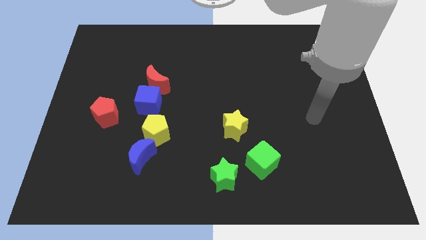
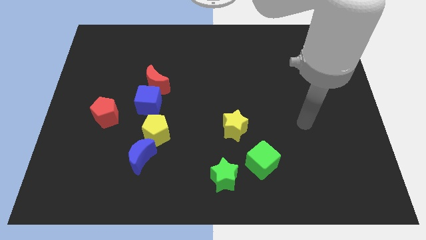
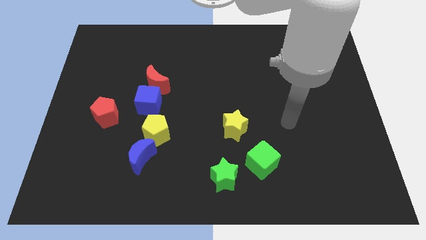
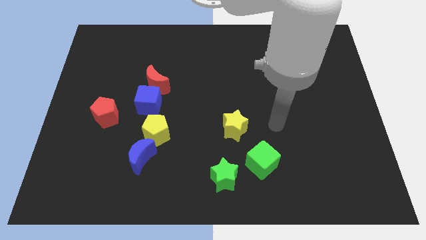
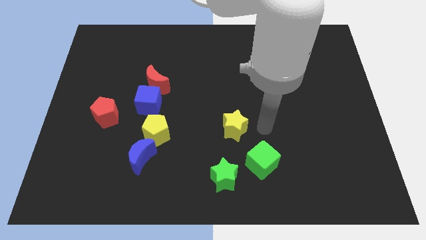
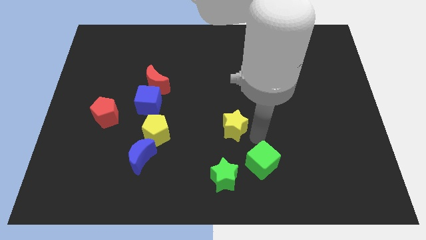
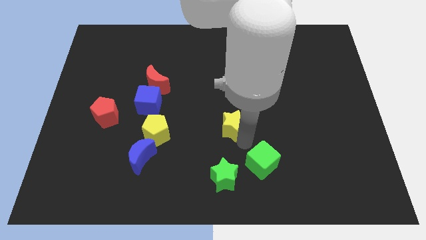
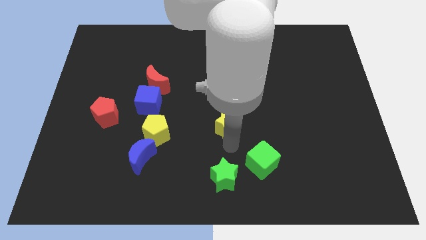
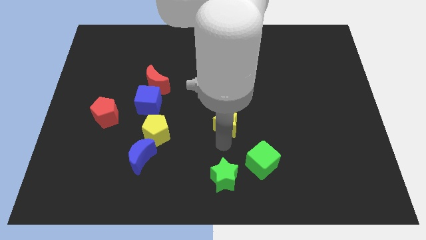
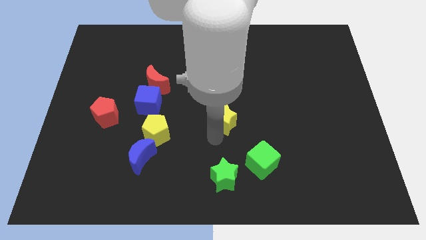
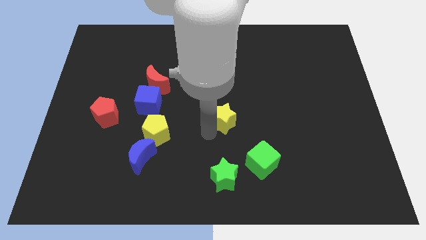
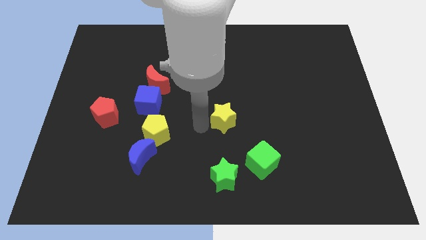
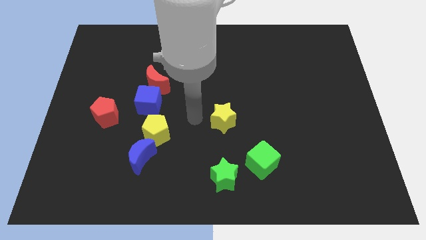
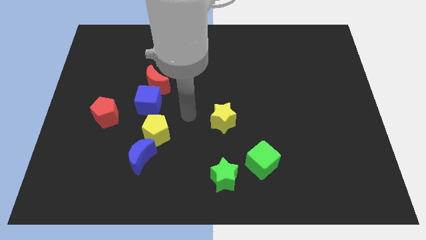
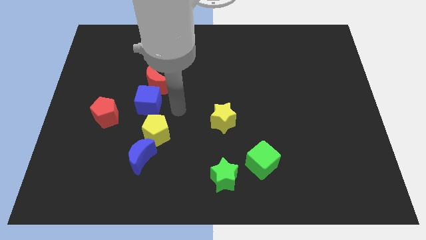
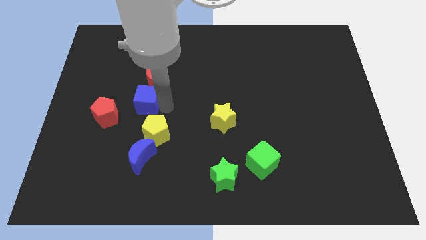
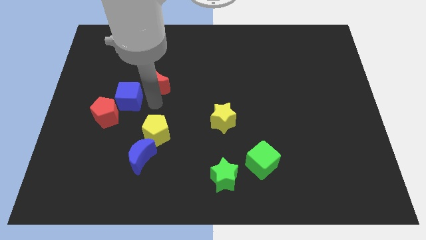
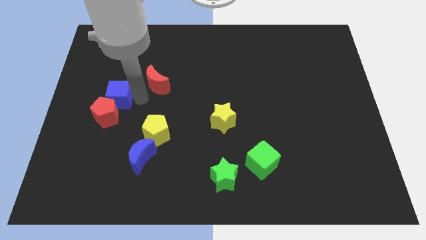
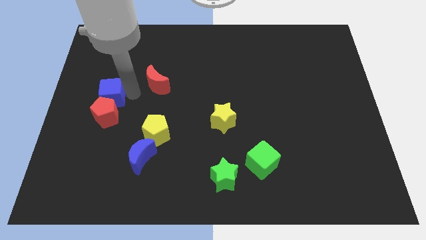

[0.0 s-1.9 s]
separate the red moon from the blue cube

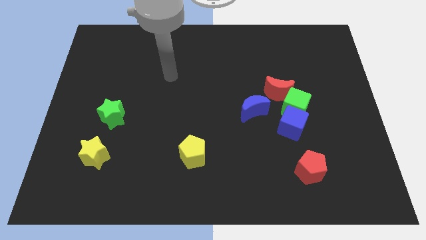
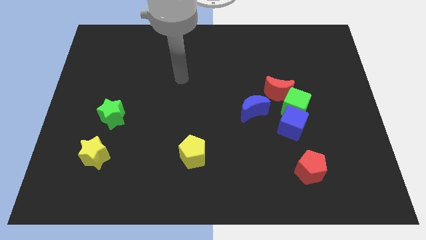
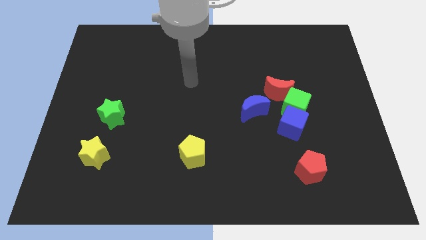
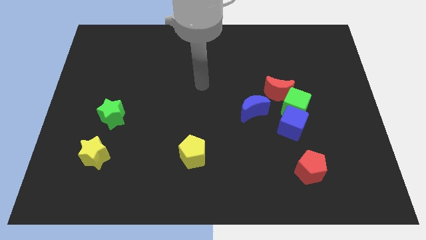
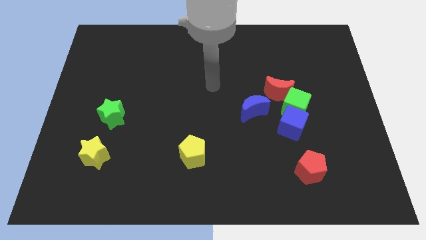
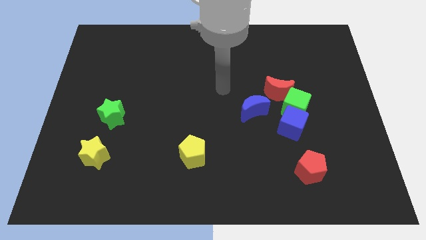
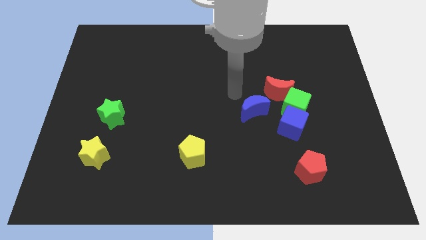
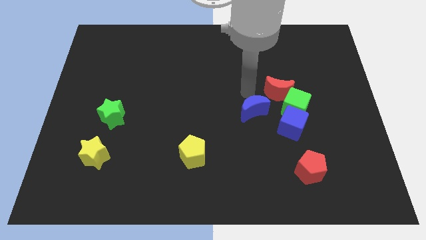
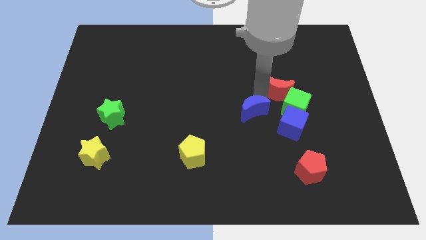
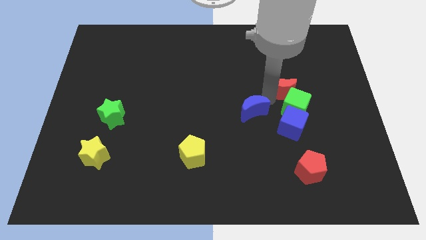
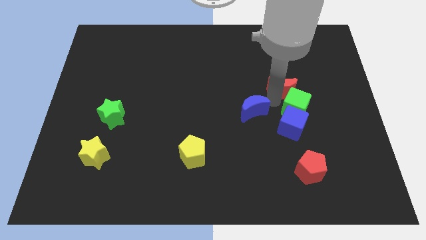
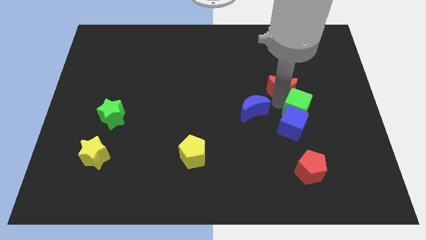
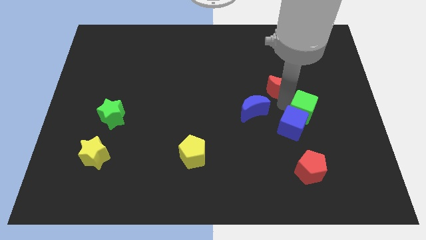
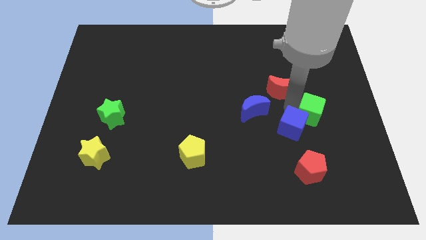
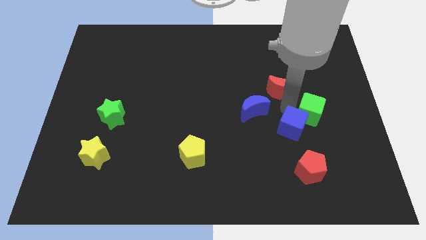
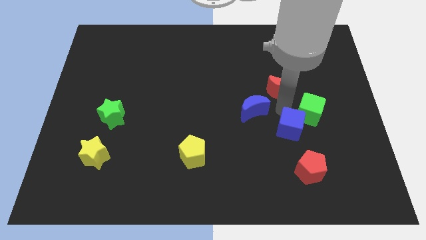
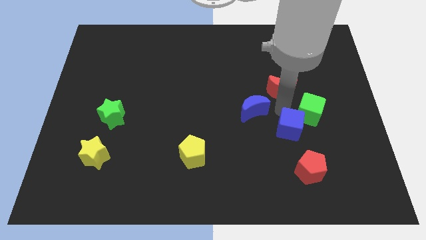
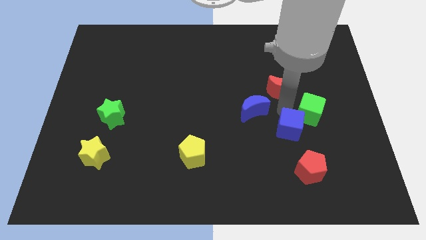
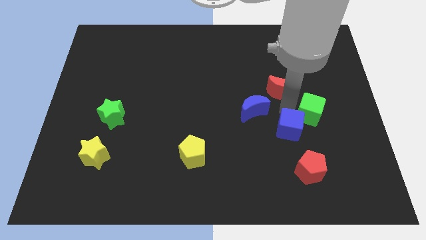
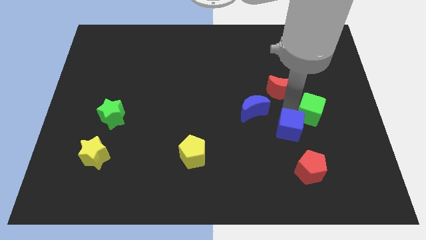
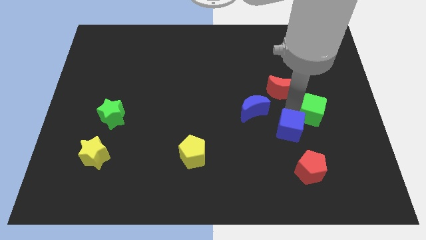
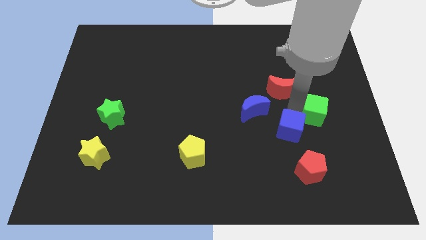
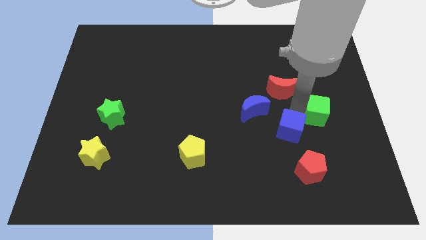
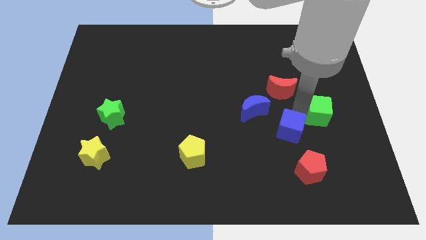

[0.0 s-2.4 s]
move the green cube away from the group

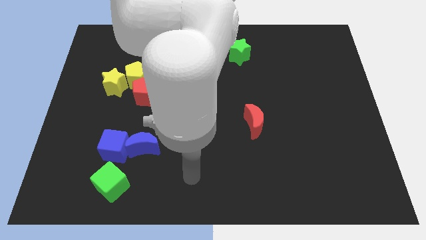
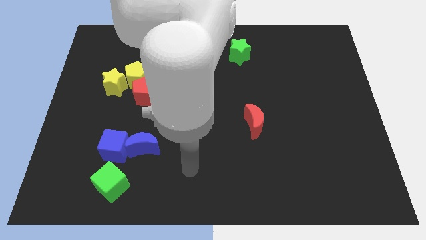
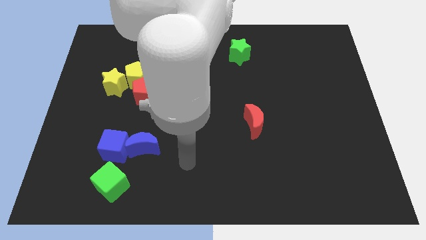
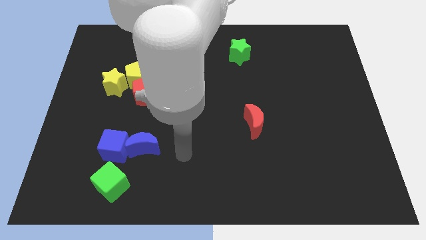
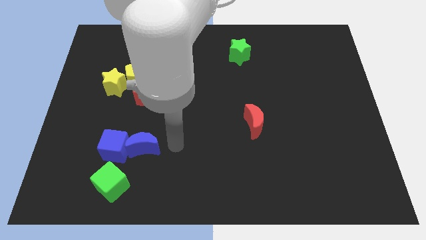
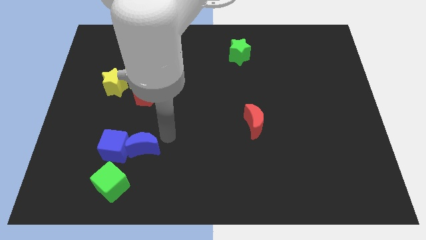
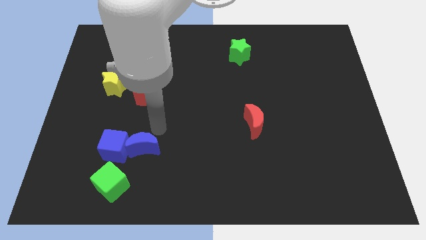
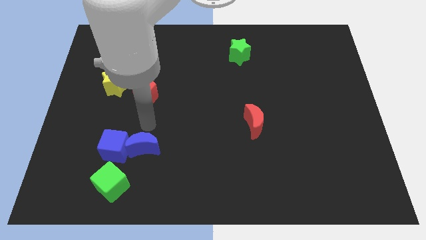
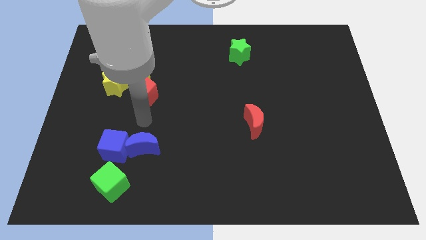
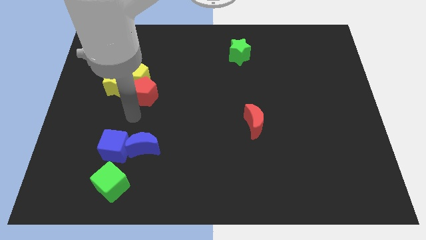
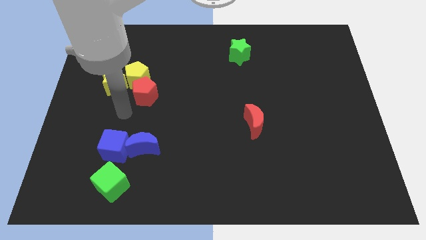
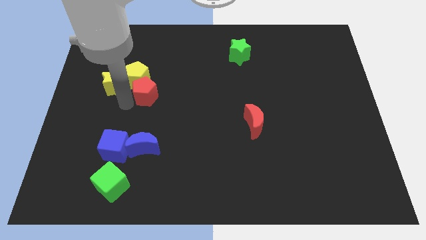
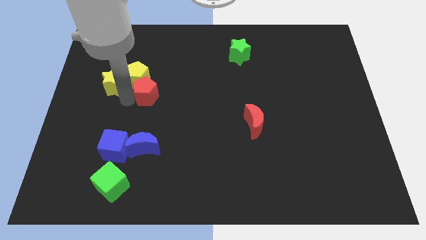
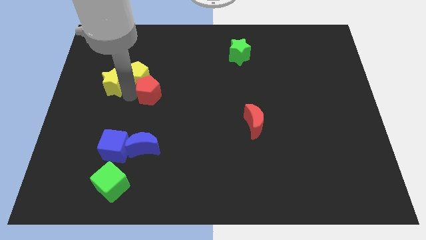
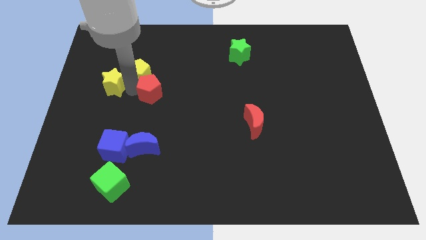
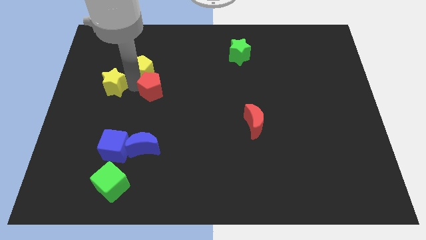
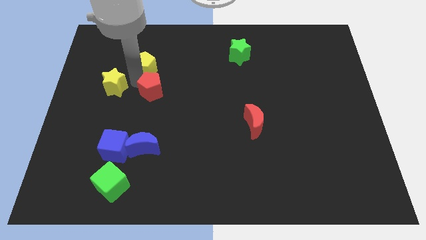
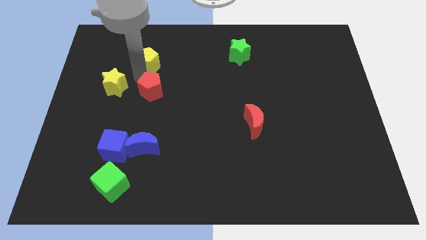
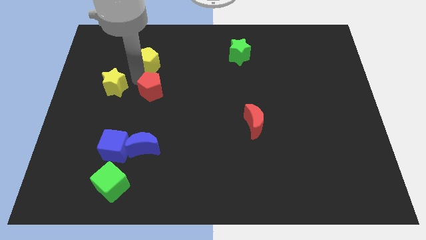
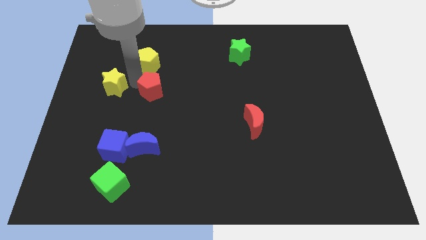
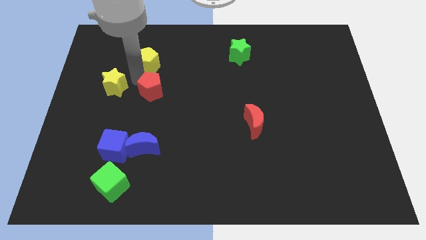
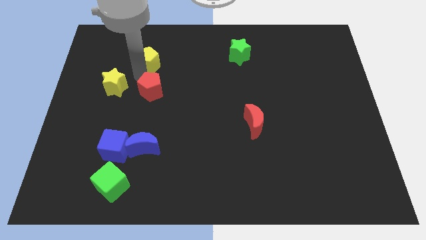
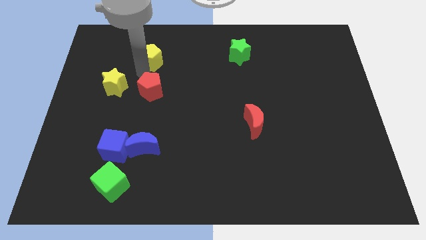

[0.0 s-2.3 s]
separate the yellow pentagon from the red pentagon and yellow star

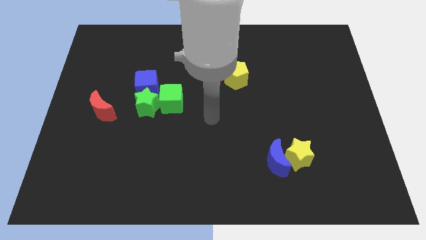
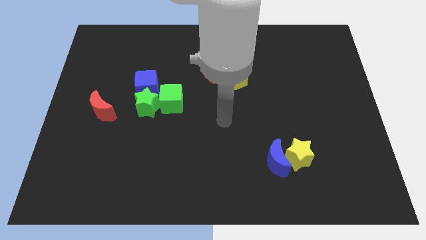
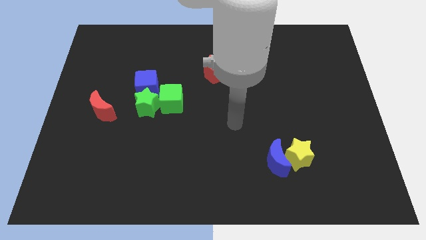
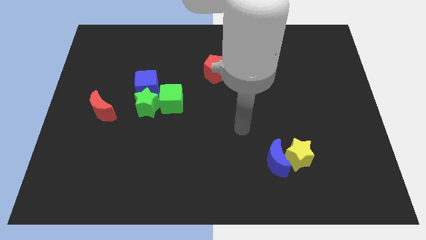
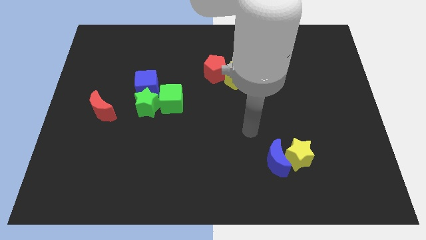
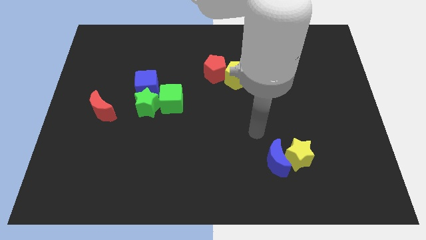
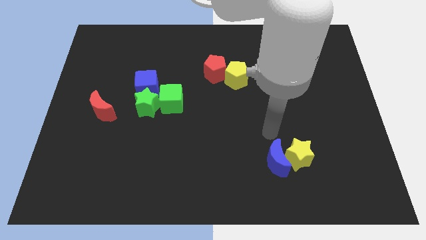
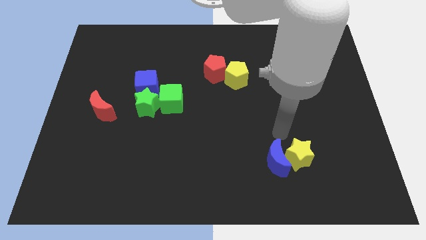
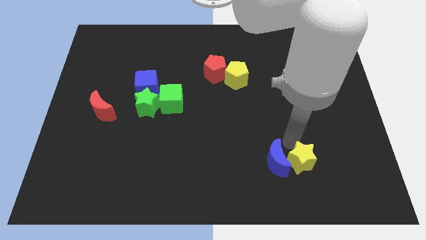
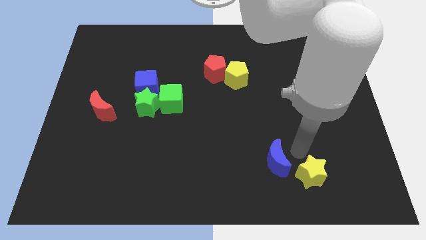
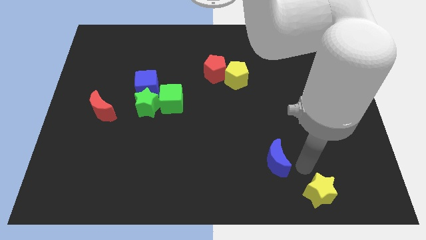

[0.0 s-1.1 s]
move the blue moon away from the yellow star

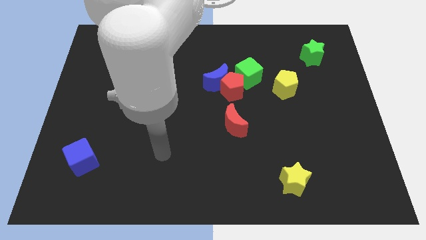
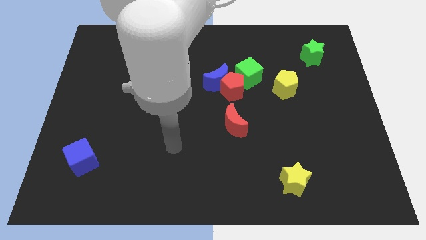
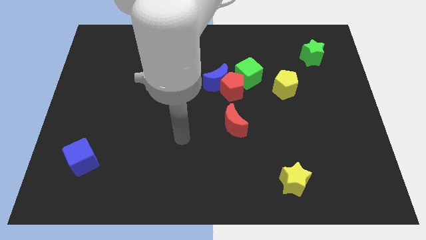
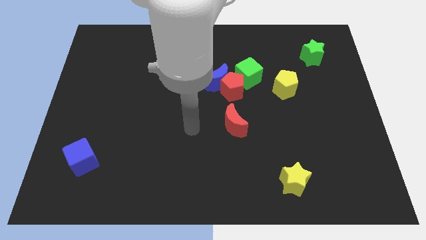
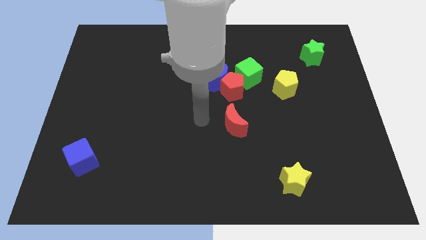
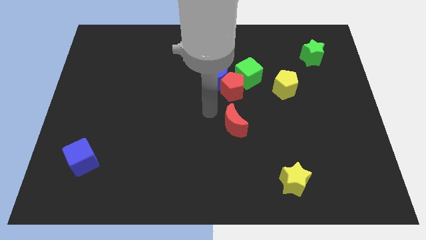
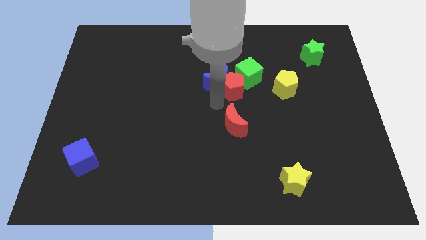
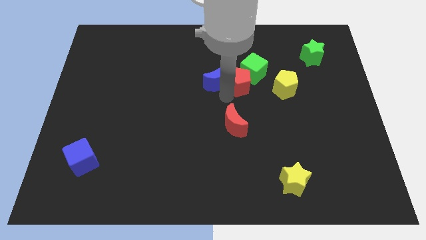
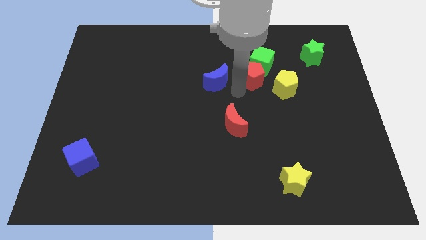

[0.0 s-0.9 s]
separate the blue moon from the red pentagon and green cube

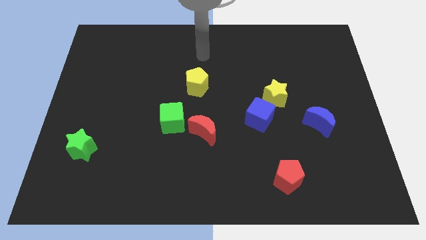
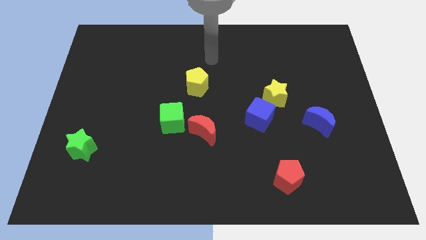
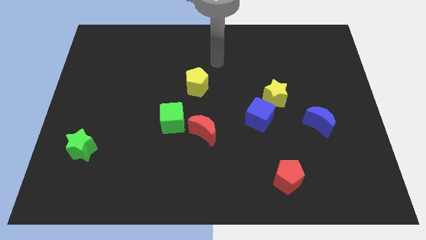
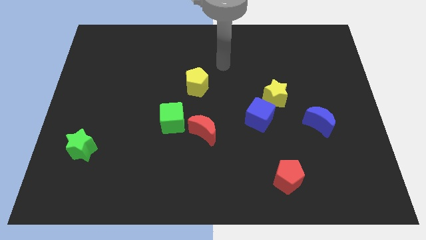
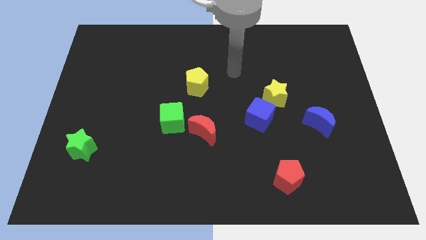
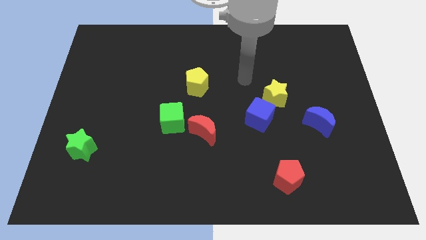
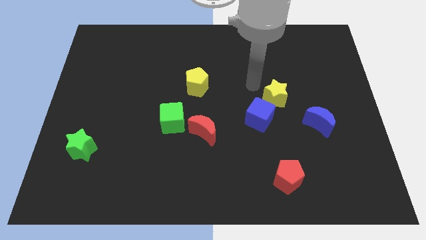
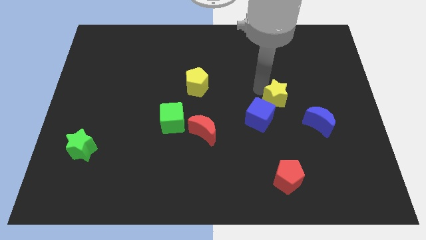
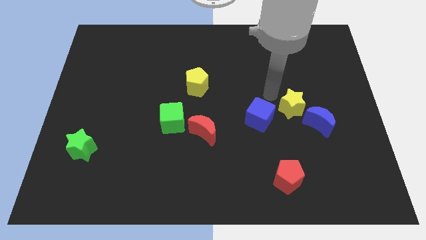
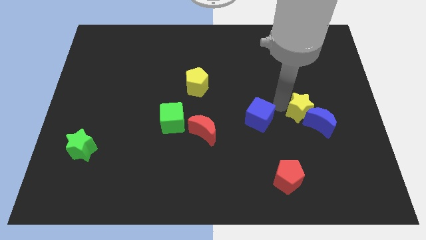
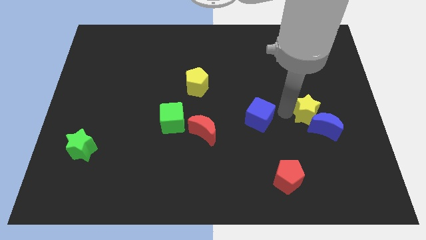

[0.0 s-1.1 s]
move the blue cube away from the yellow star
